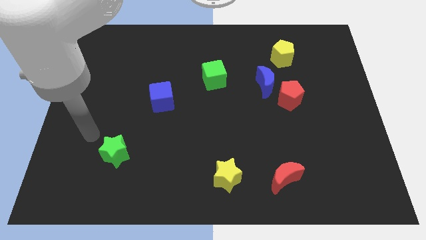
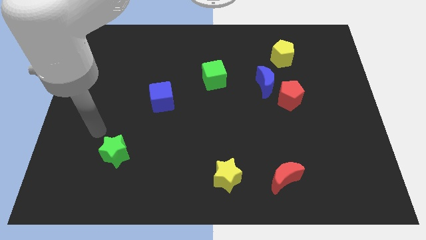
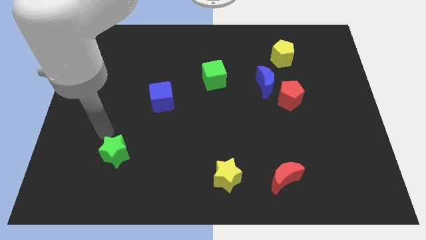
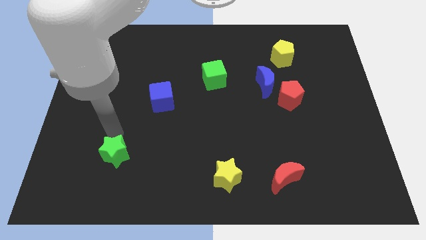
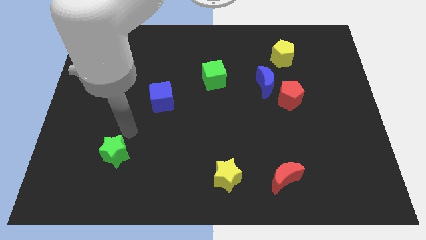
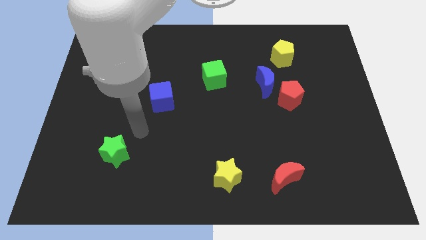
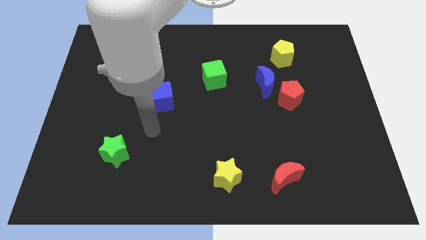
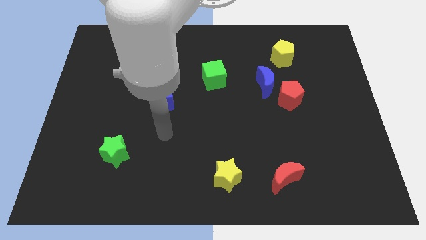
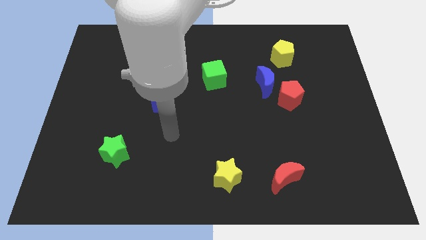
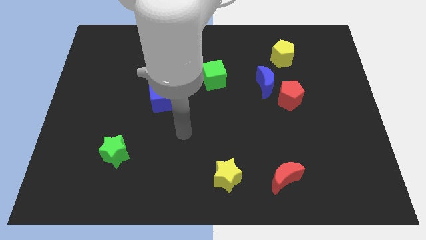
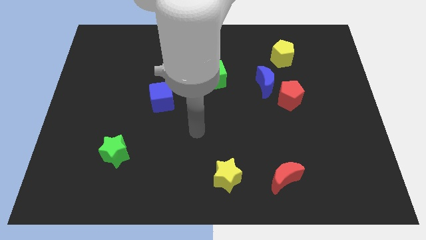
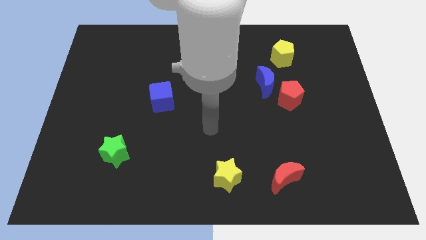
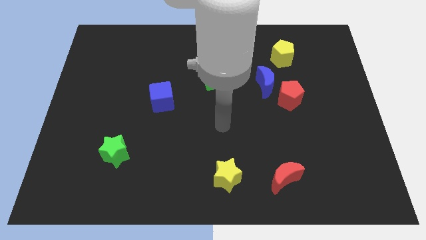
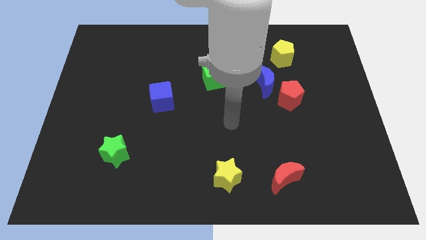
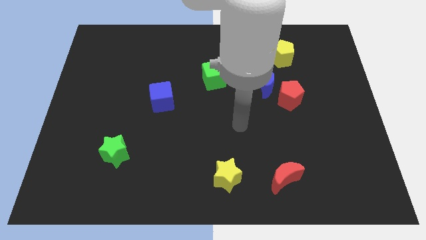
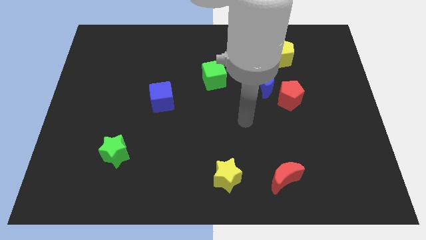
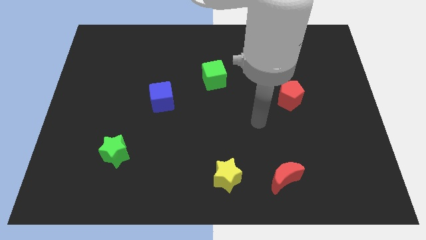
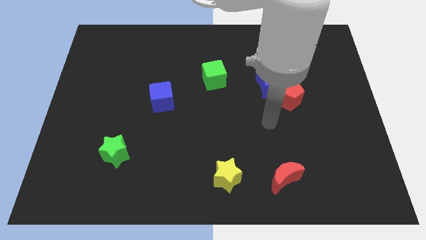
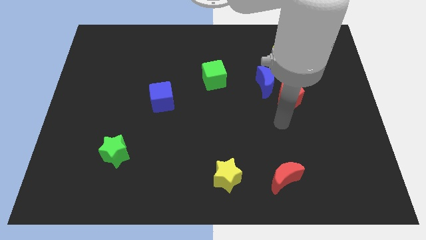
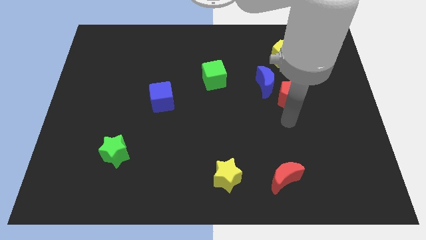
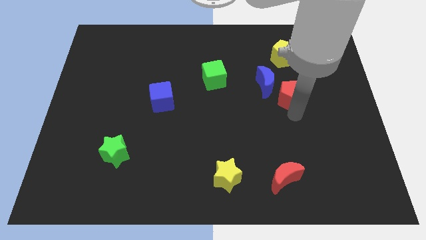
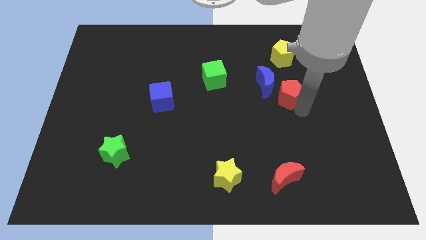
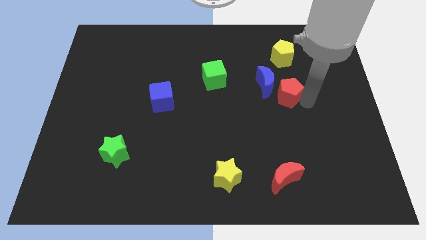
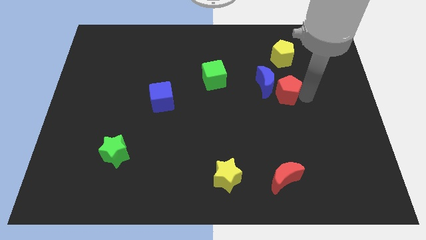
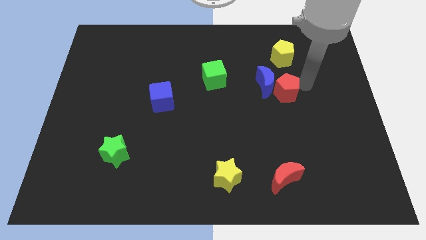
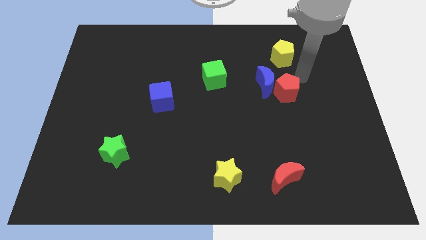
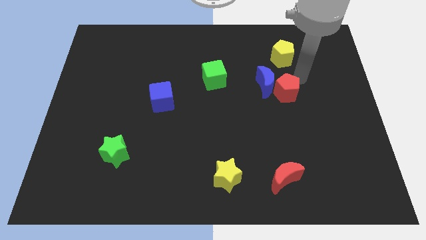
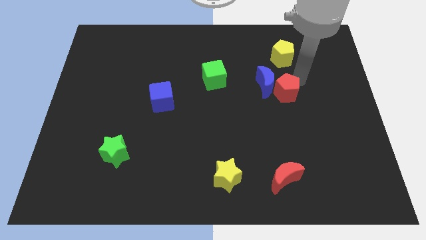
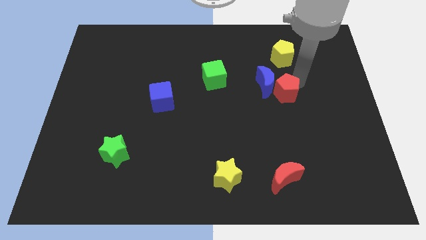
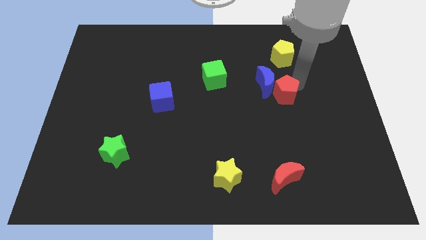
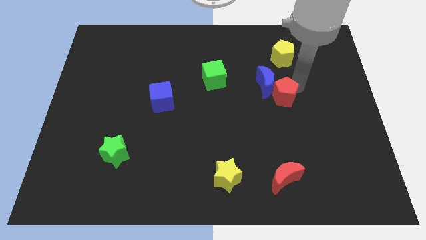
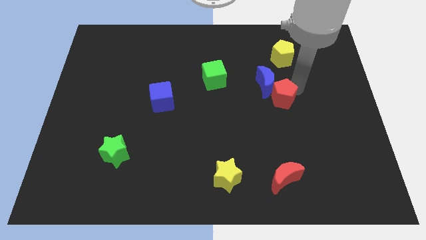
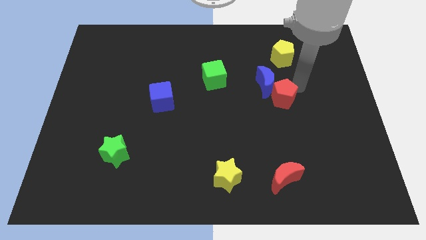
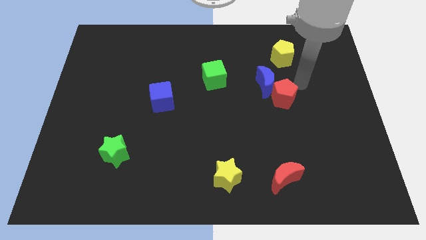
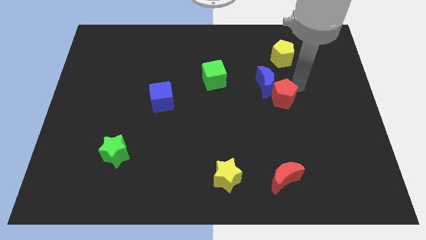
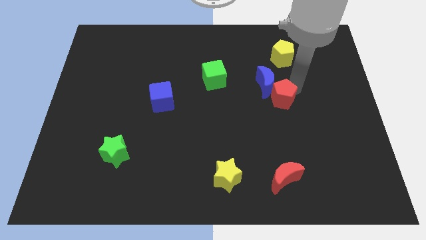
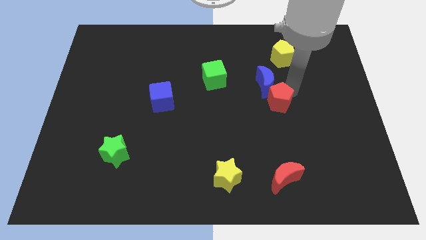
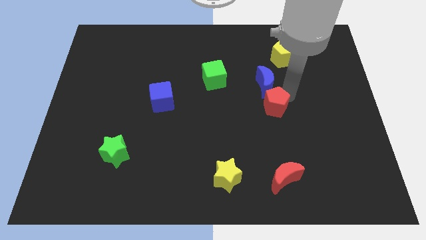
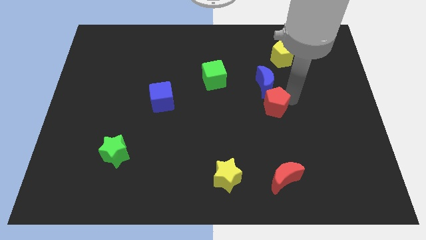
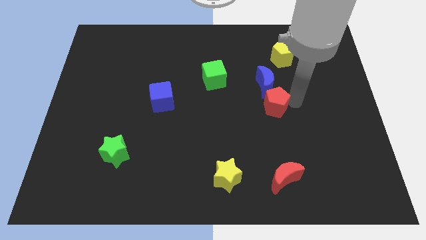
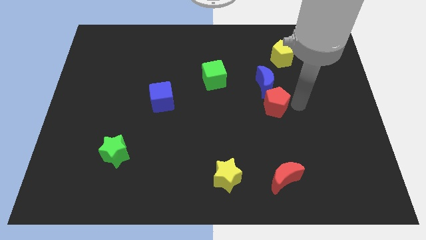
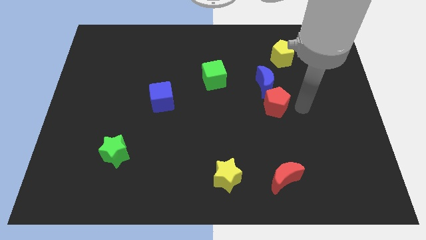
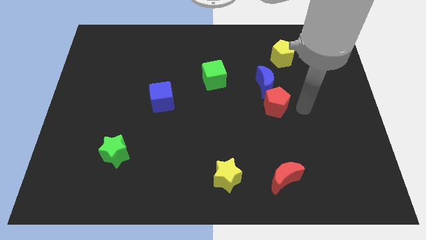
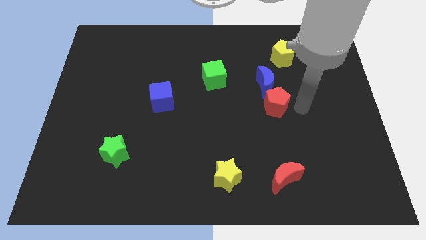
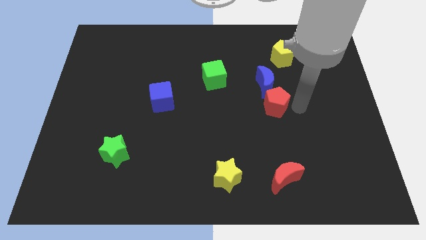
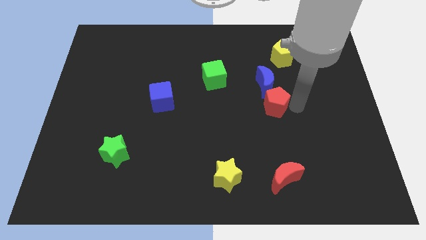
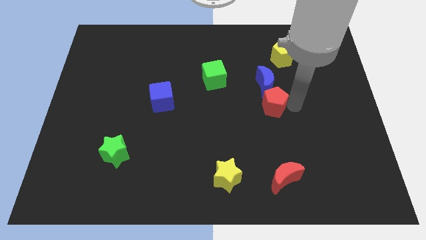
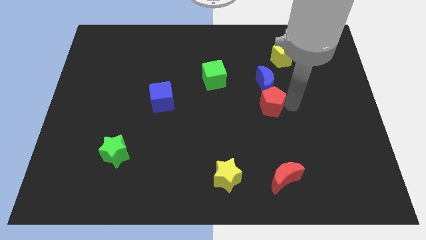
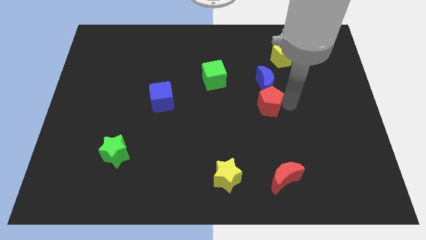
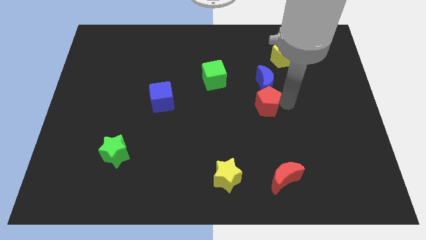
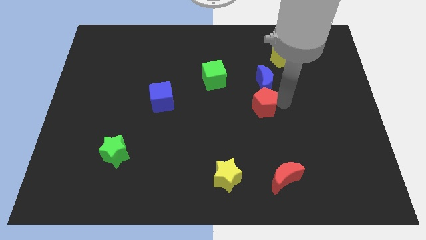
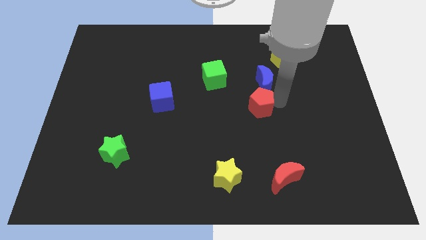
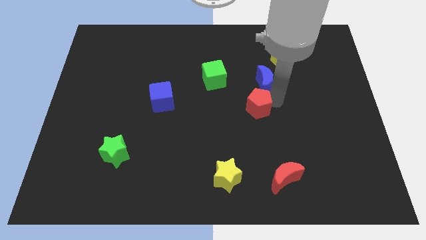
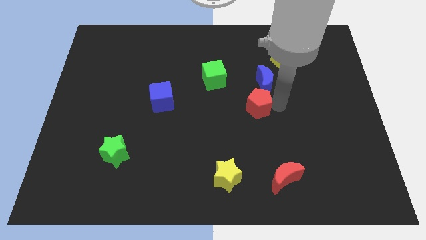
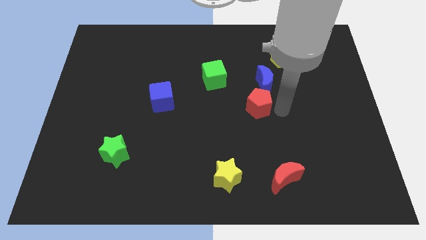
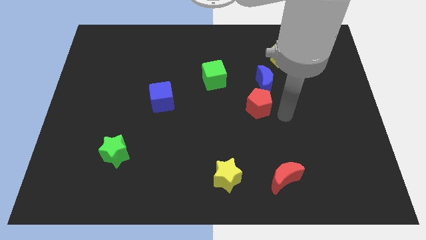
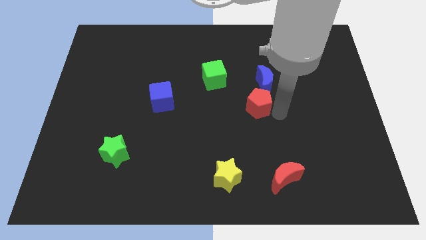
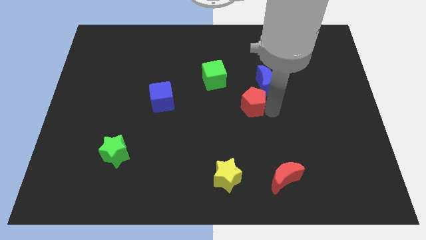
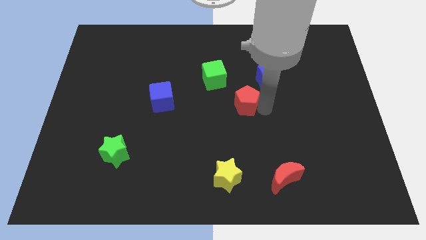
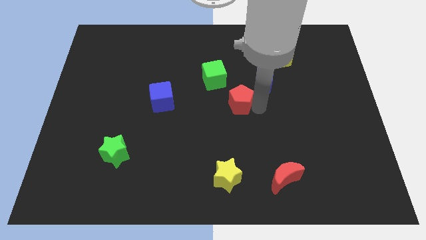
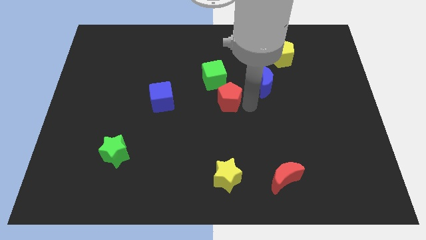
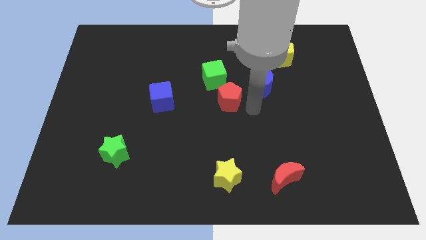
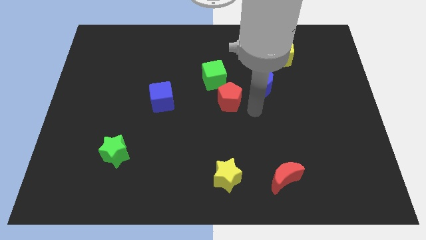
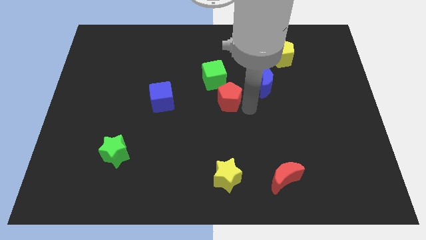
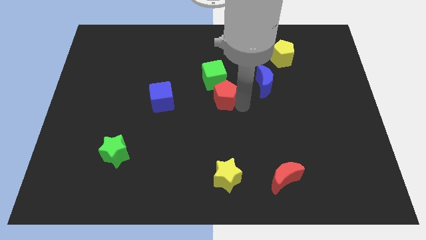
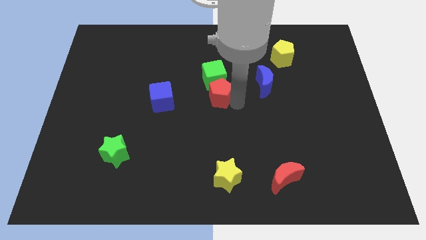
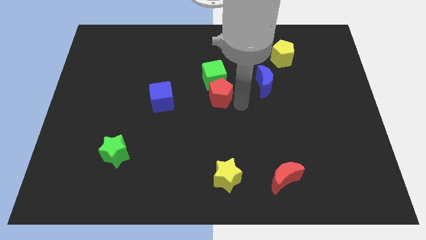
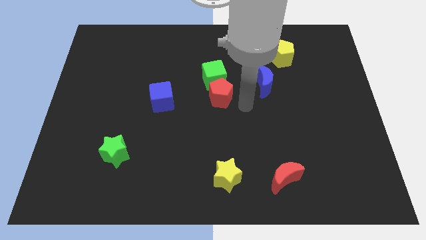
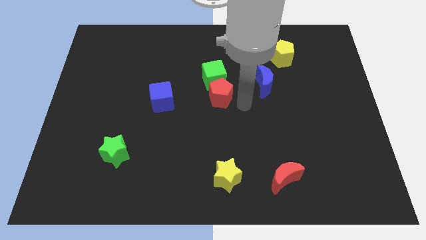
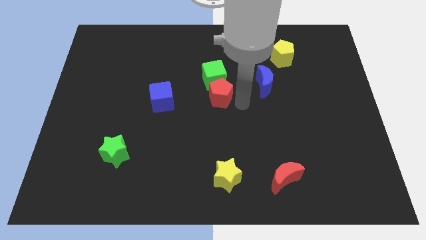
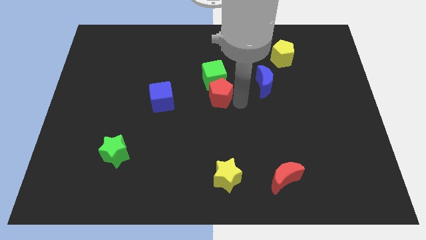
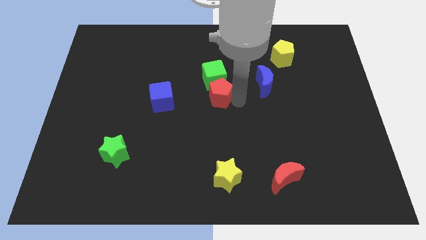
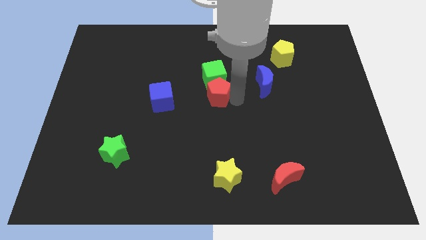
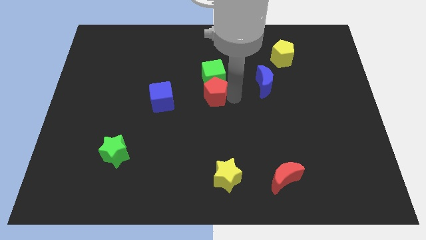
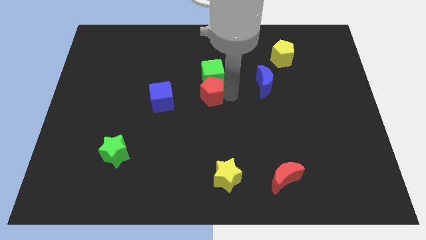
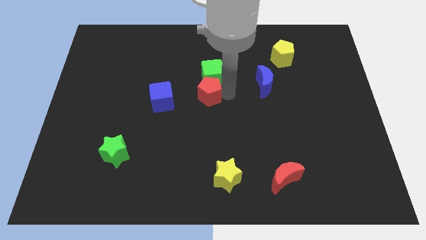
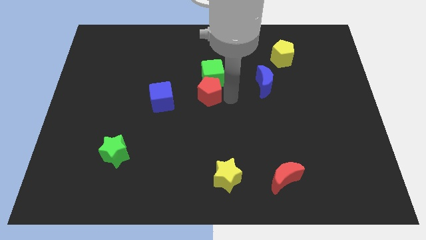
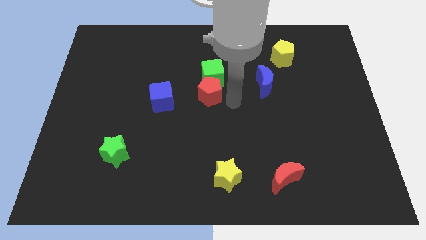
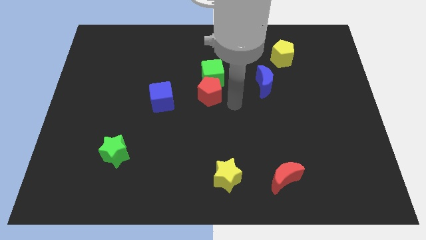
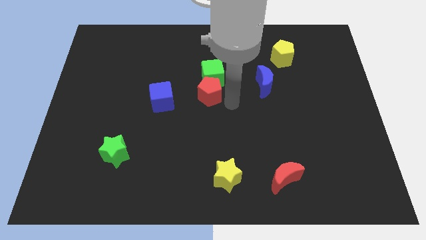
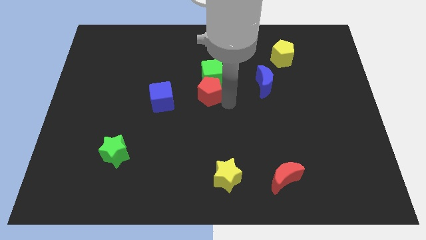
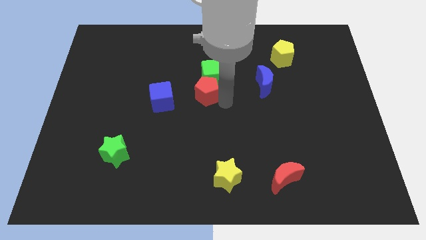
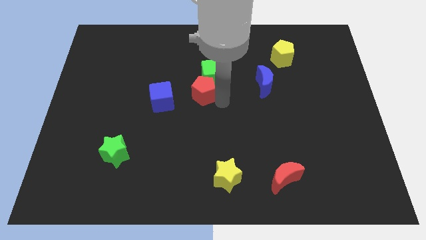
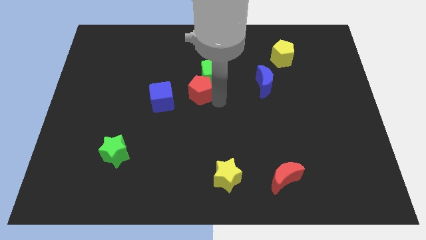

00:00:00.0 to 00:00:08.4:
slide the red pentagon diagonally up and to the right of the blue cube
